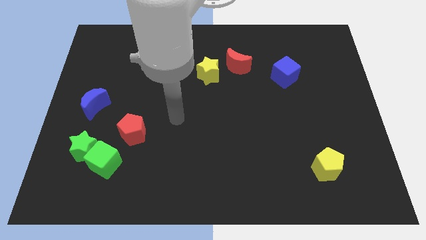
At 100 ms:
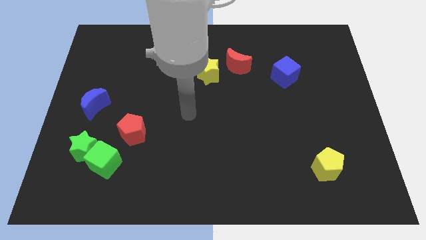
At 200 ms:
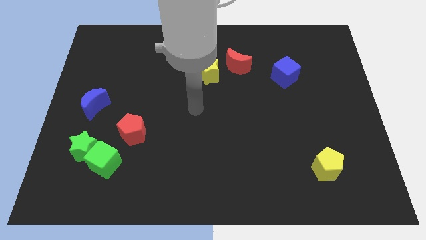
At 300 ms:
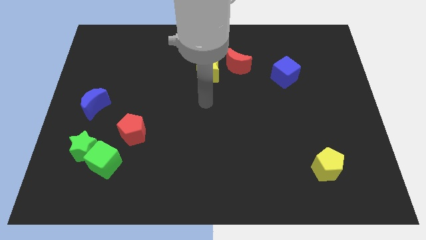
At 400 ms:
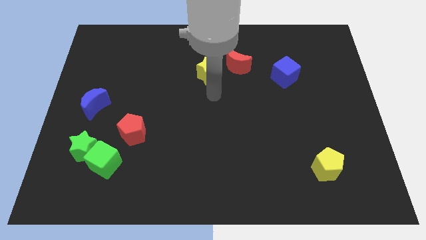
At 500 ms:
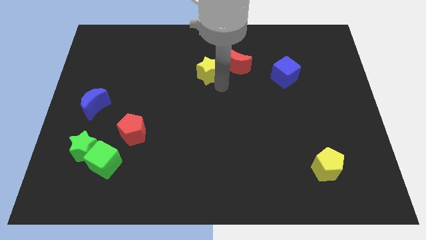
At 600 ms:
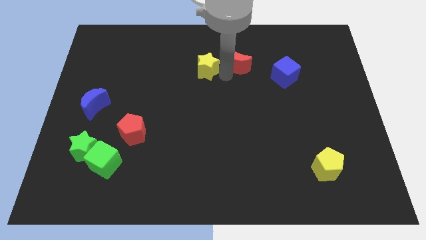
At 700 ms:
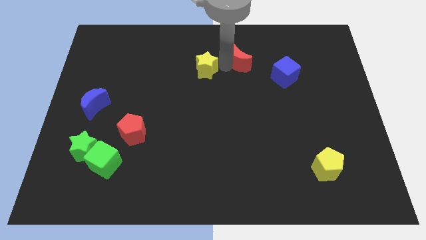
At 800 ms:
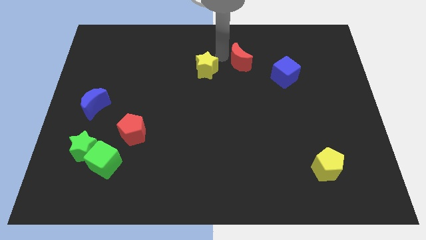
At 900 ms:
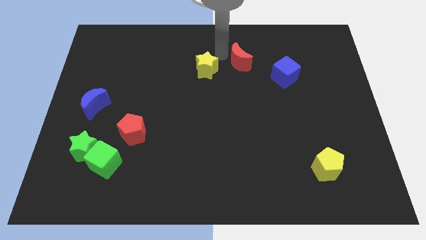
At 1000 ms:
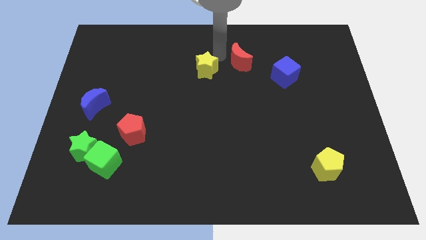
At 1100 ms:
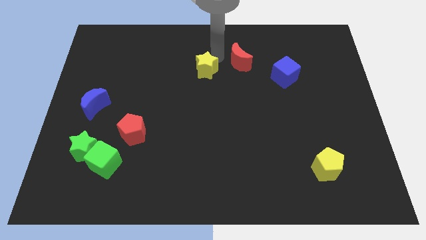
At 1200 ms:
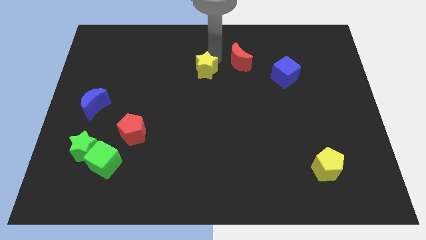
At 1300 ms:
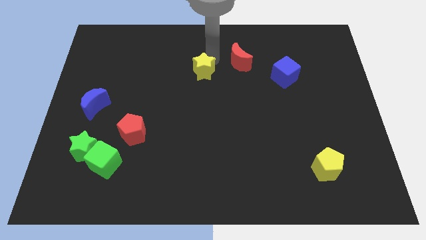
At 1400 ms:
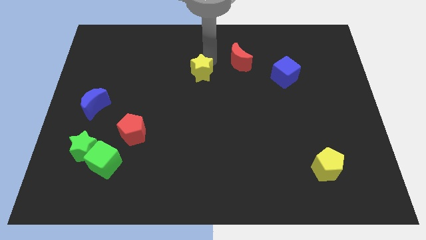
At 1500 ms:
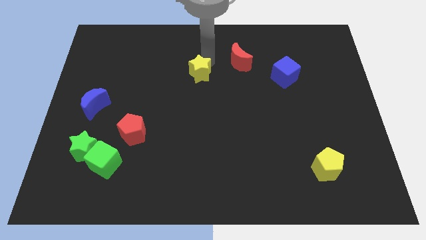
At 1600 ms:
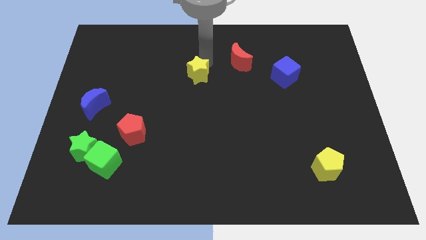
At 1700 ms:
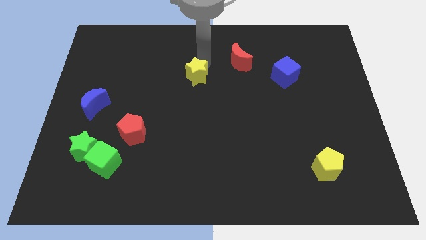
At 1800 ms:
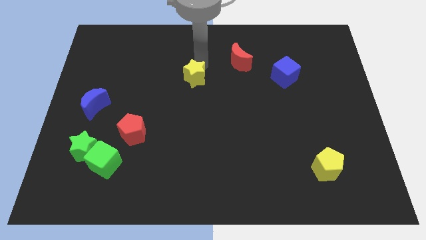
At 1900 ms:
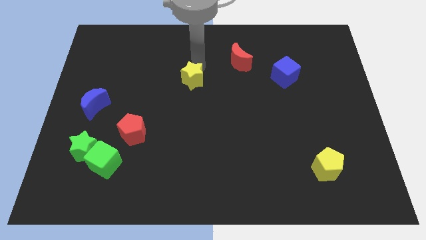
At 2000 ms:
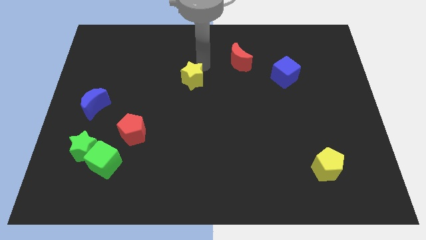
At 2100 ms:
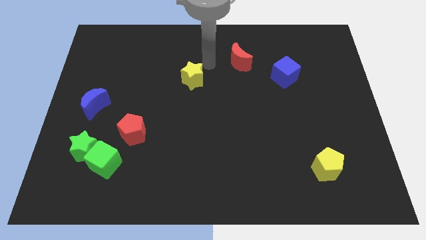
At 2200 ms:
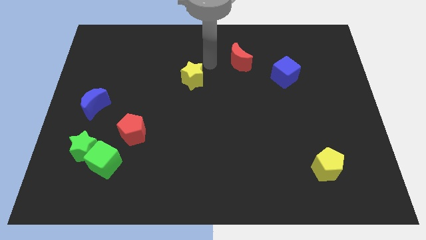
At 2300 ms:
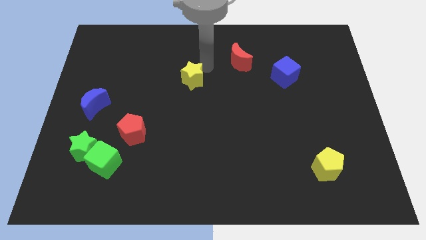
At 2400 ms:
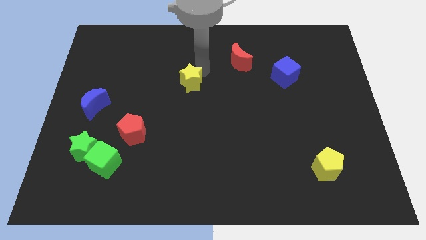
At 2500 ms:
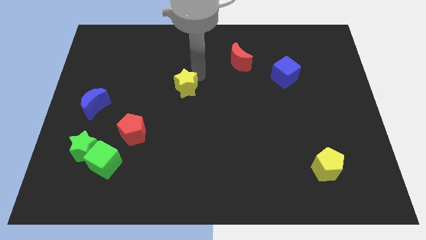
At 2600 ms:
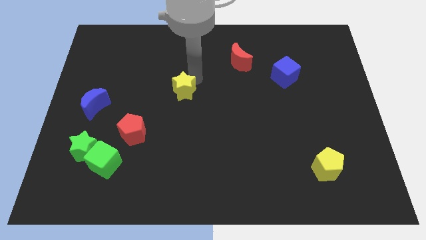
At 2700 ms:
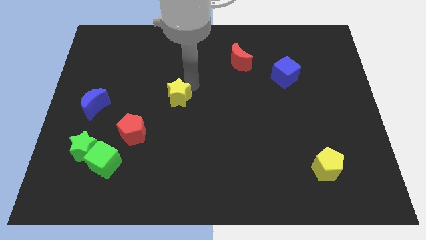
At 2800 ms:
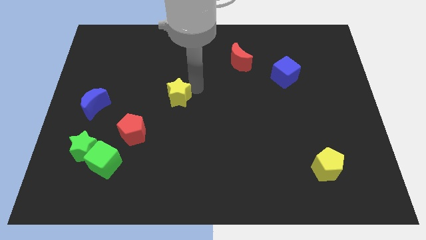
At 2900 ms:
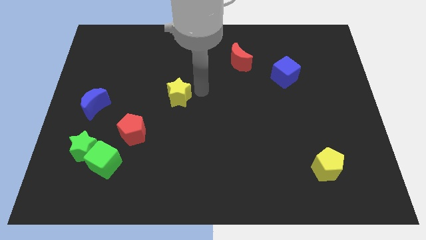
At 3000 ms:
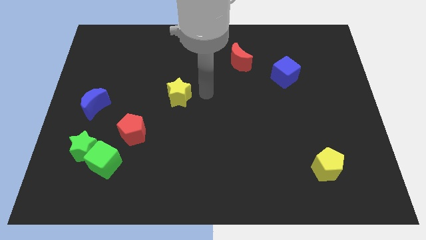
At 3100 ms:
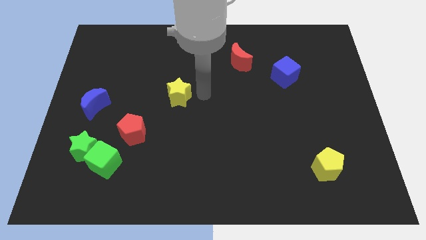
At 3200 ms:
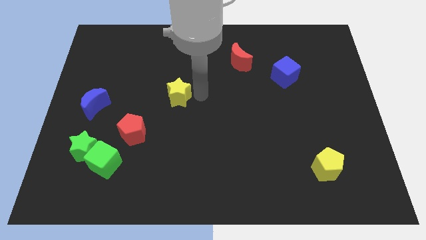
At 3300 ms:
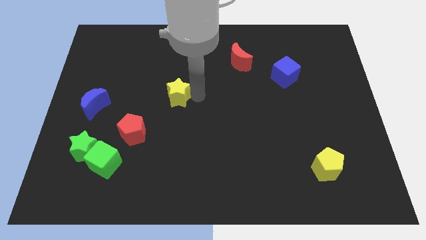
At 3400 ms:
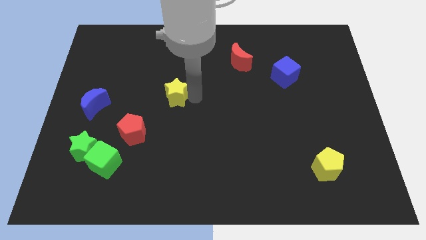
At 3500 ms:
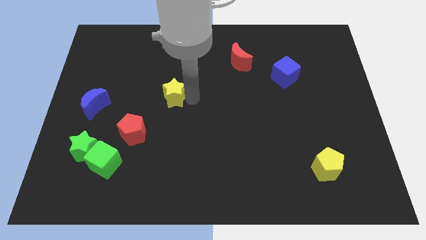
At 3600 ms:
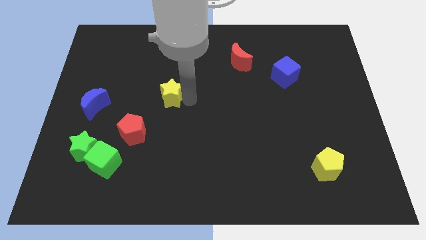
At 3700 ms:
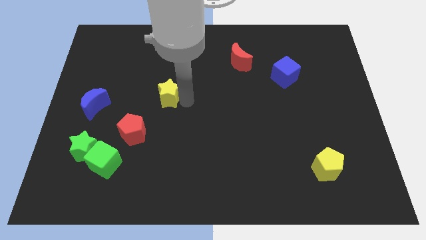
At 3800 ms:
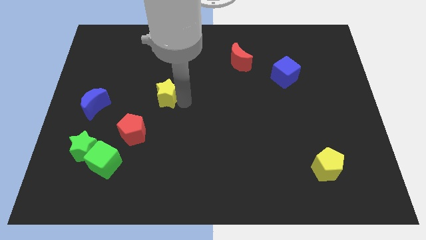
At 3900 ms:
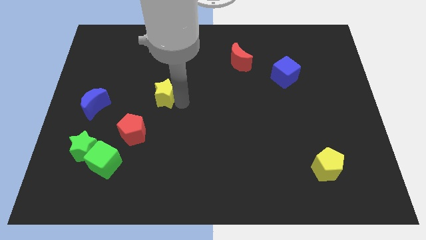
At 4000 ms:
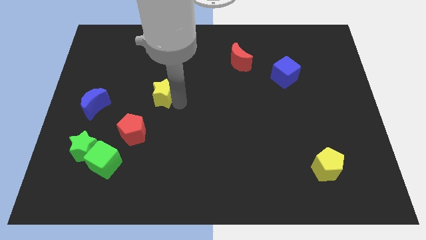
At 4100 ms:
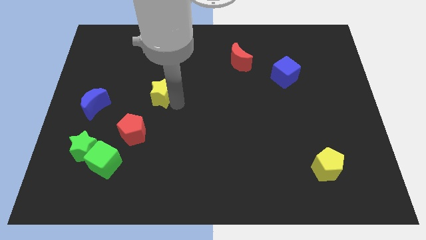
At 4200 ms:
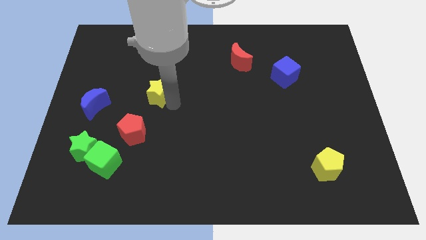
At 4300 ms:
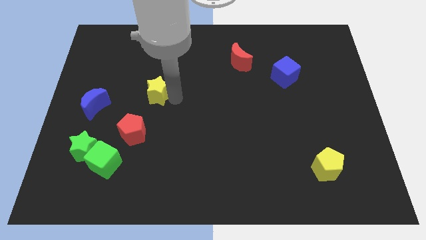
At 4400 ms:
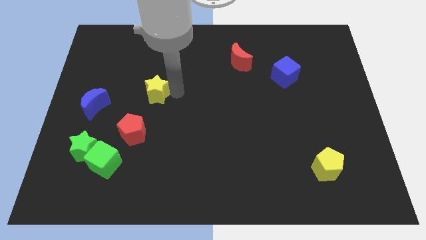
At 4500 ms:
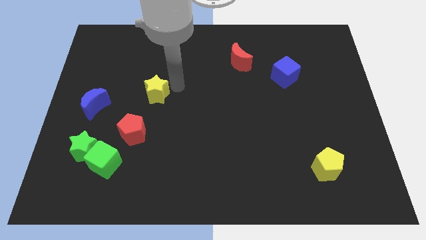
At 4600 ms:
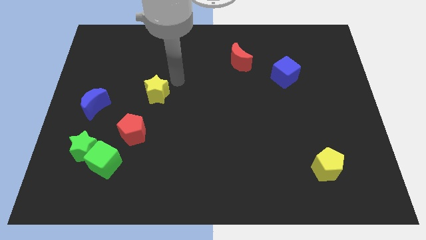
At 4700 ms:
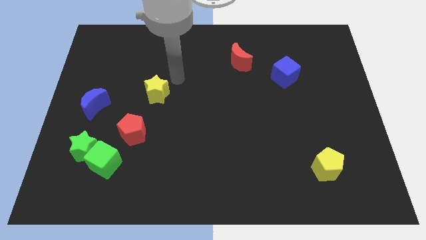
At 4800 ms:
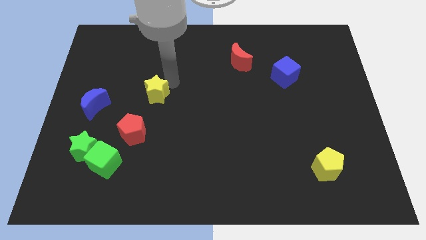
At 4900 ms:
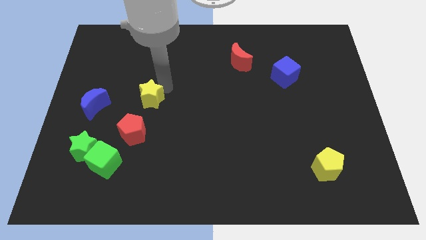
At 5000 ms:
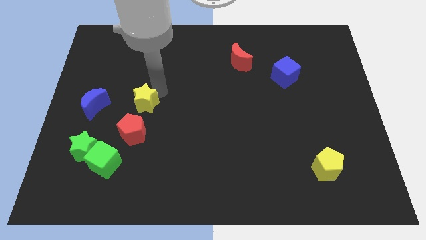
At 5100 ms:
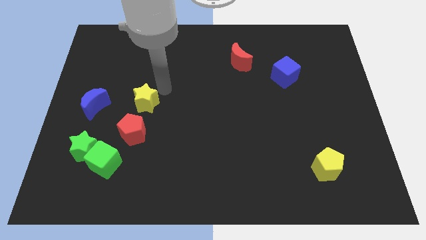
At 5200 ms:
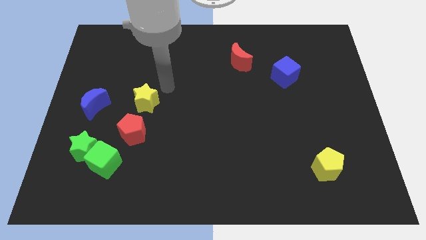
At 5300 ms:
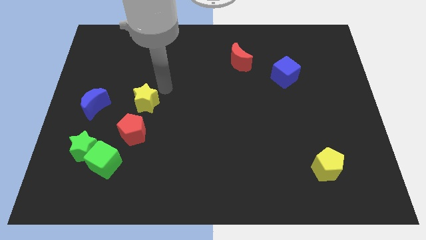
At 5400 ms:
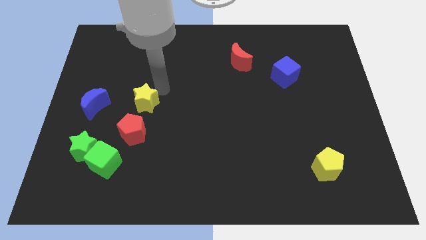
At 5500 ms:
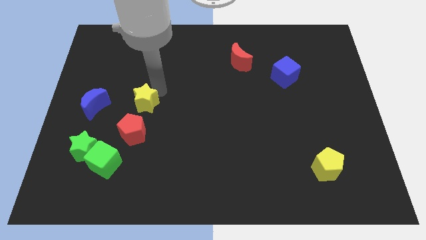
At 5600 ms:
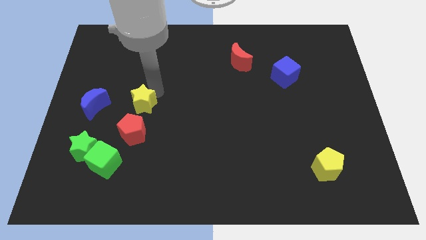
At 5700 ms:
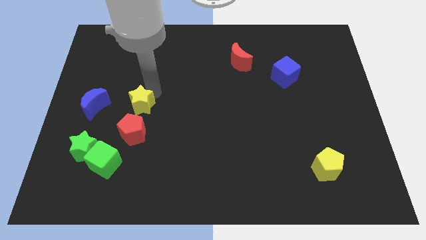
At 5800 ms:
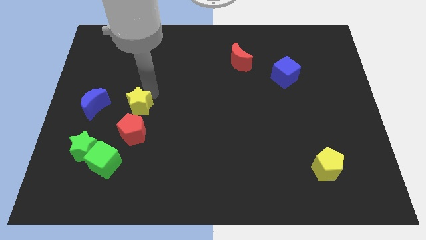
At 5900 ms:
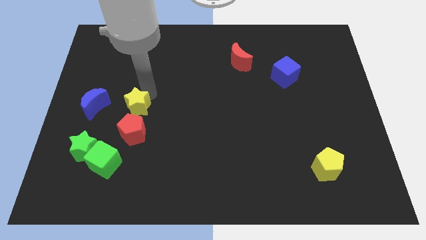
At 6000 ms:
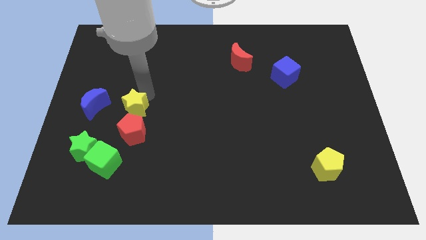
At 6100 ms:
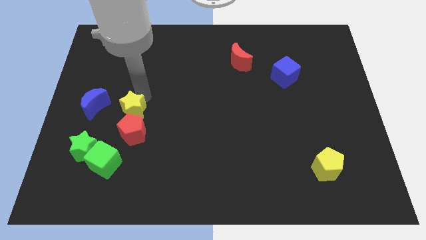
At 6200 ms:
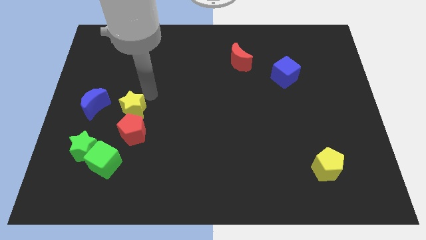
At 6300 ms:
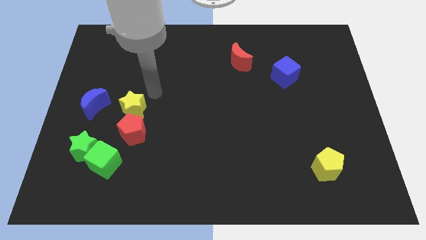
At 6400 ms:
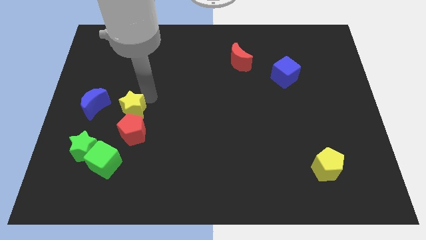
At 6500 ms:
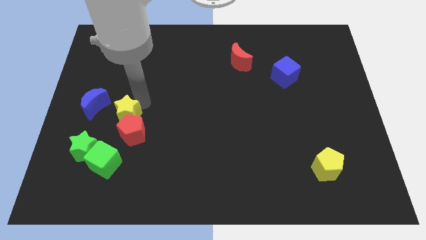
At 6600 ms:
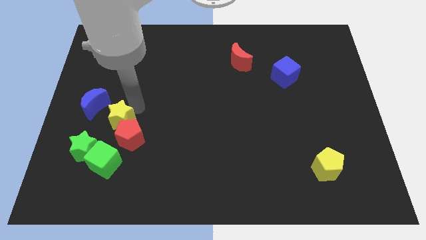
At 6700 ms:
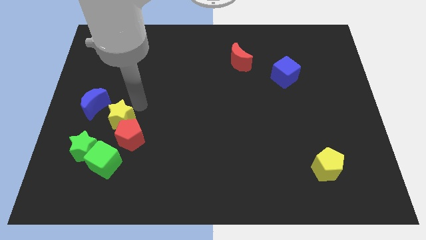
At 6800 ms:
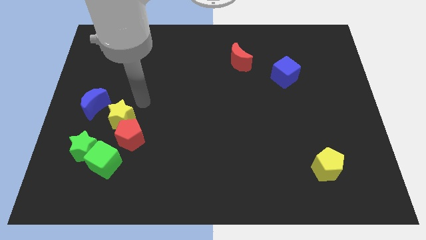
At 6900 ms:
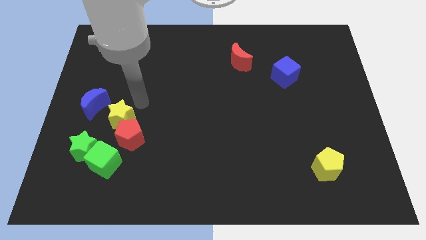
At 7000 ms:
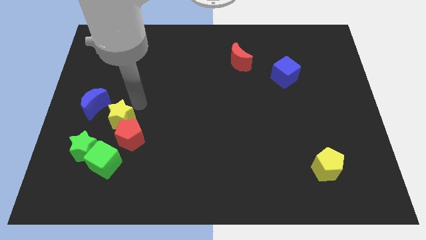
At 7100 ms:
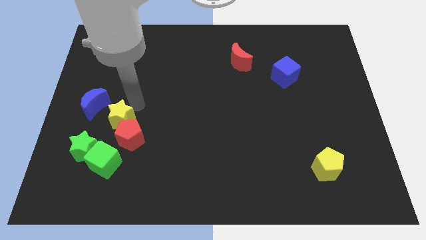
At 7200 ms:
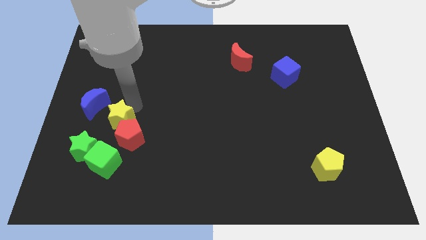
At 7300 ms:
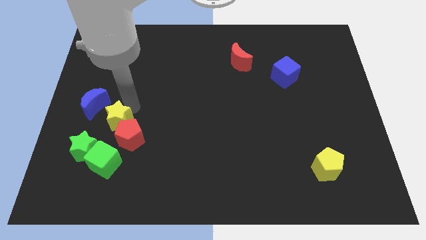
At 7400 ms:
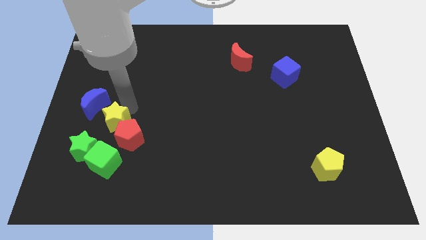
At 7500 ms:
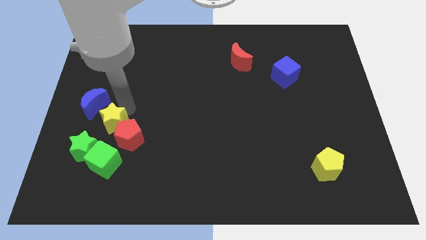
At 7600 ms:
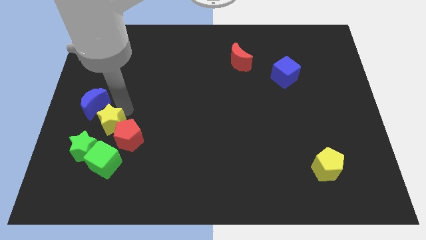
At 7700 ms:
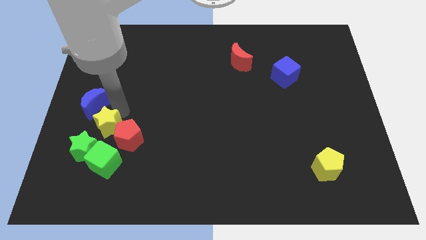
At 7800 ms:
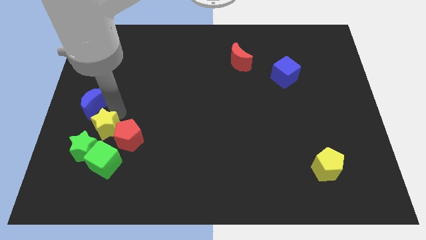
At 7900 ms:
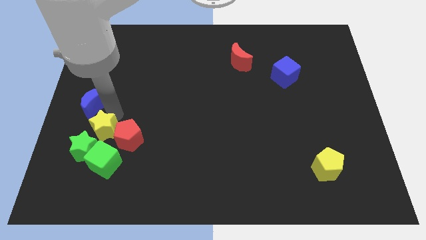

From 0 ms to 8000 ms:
slide the yellow star towards the green star
